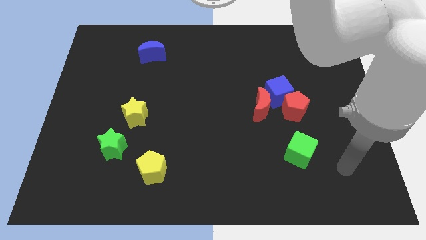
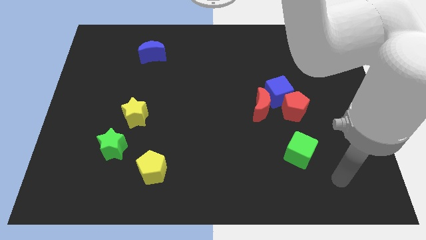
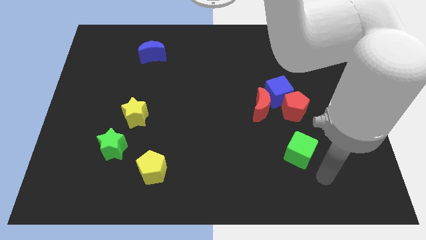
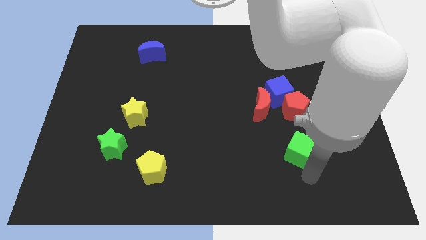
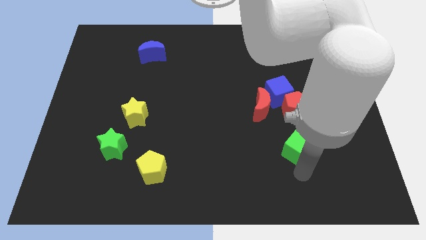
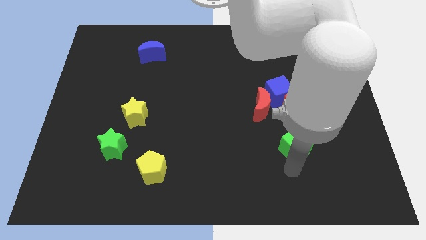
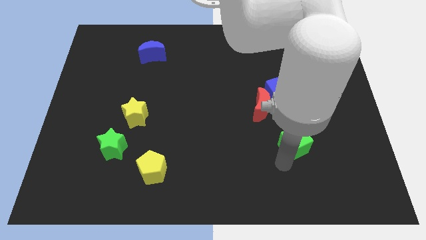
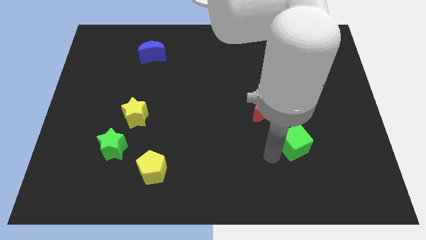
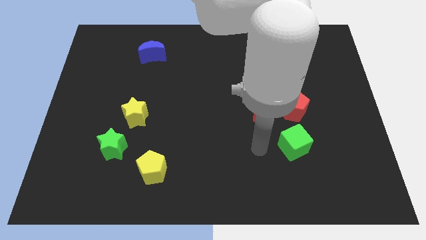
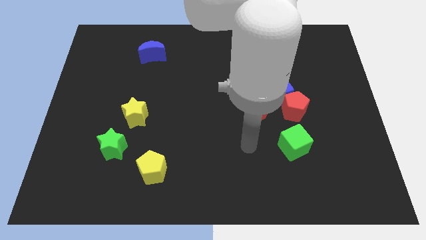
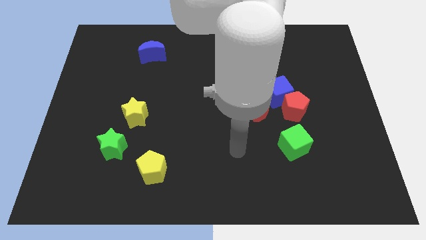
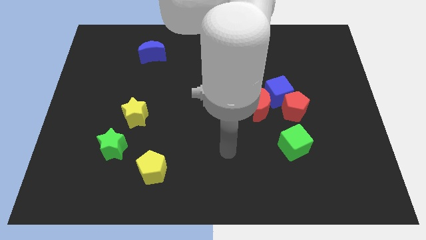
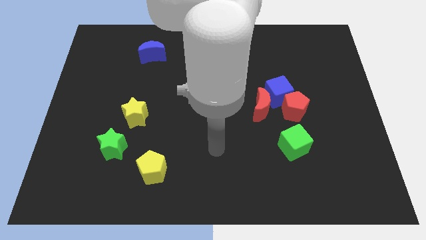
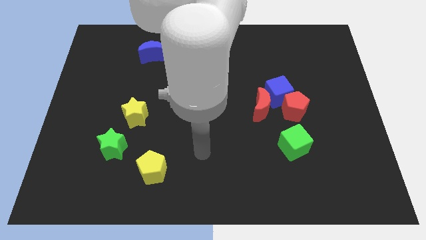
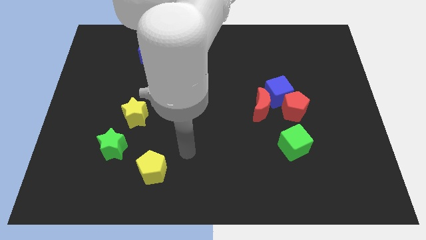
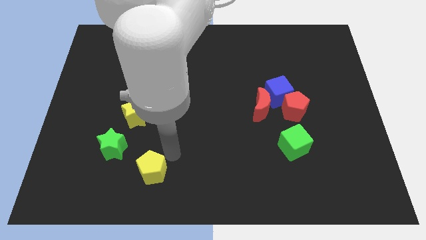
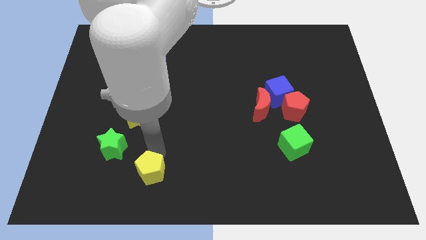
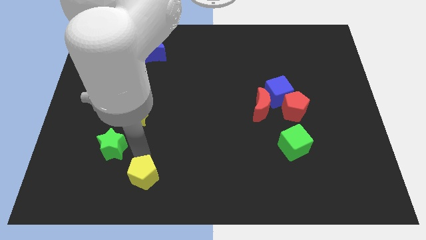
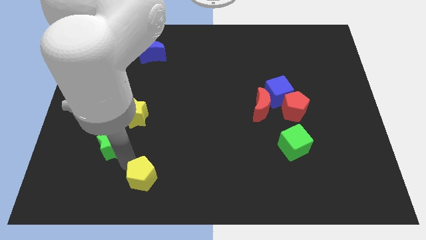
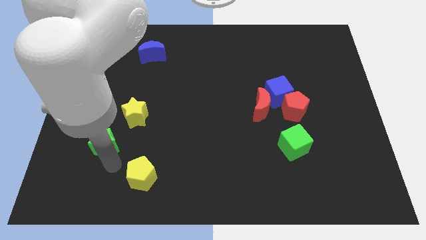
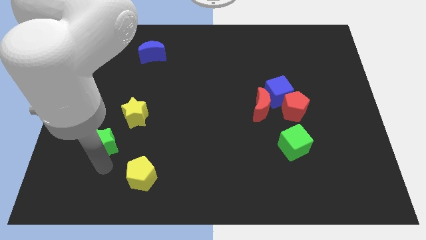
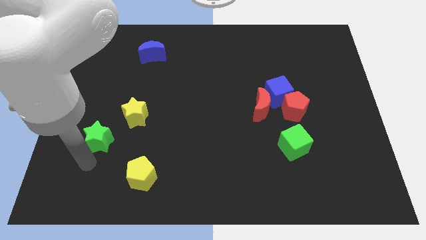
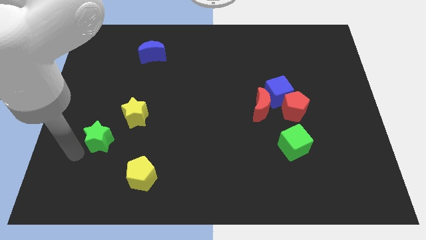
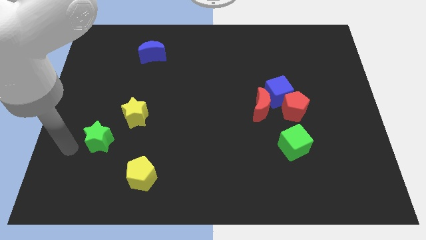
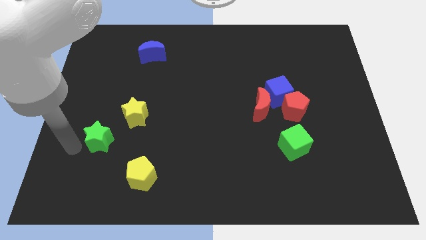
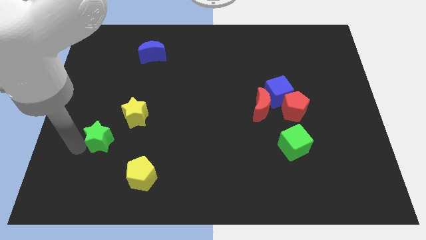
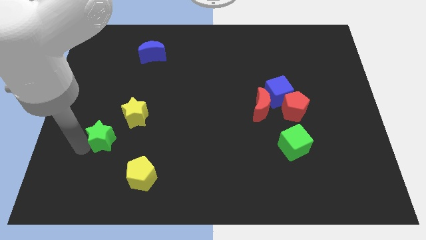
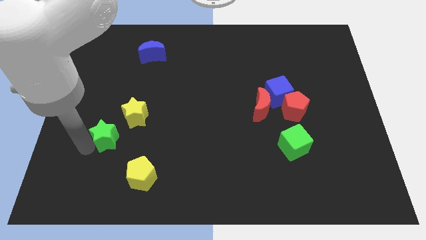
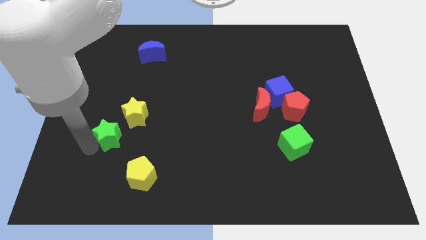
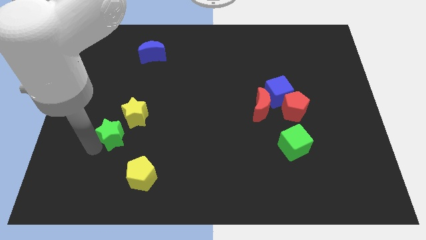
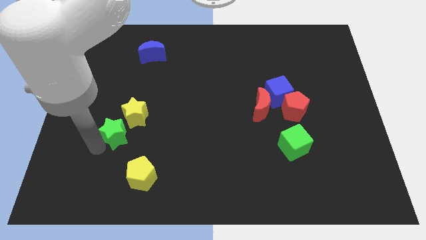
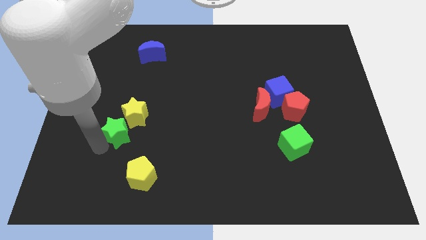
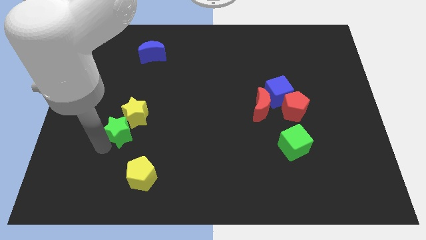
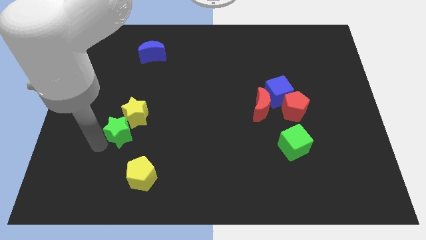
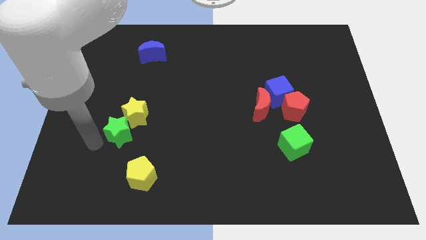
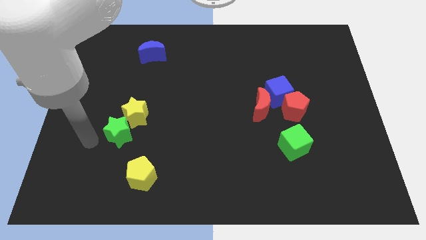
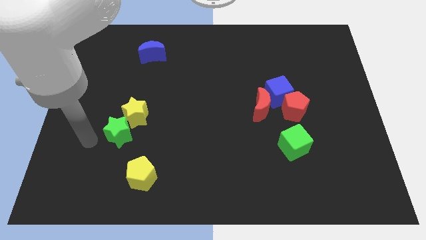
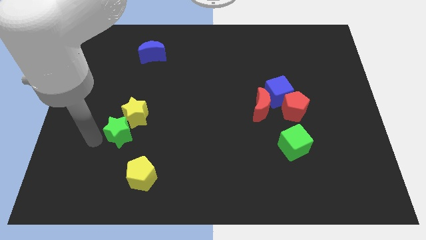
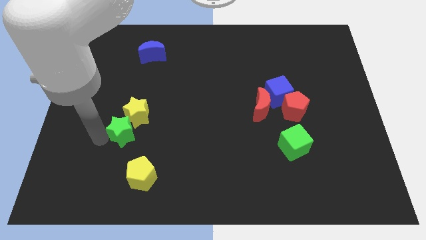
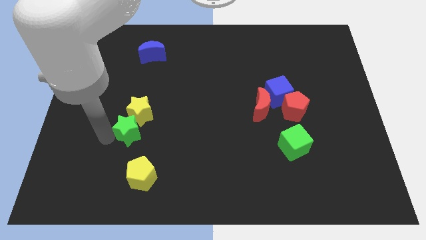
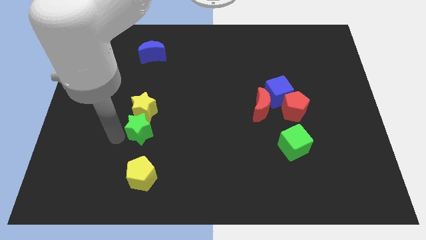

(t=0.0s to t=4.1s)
slide the green star a little diagonally up and right

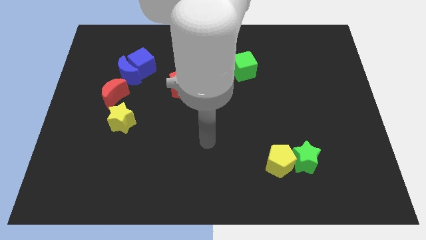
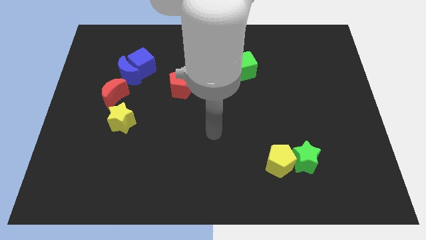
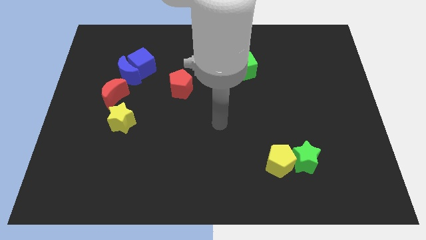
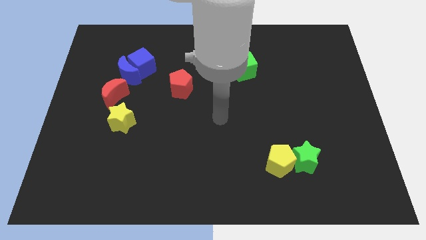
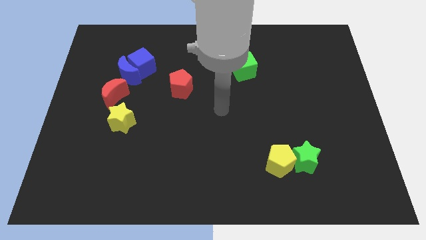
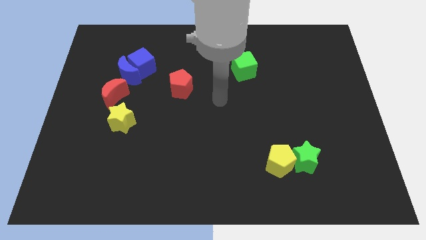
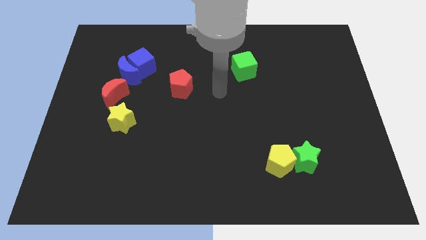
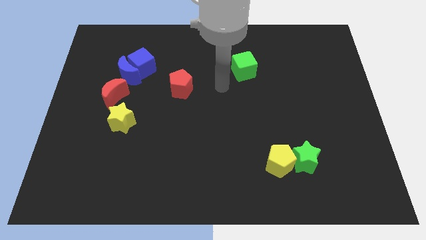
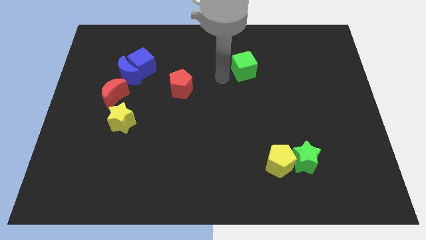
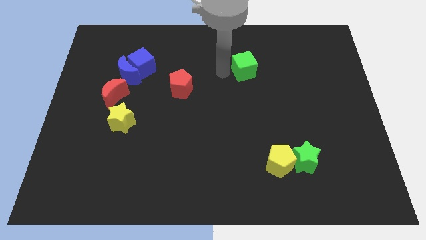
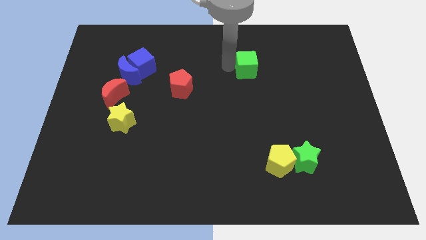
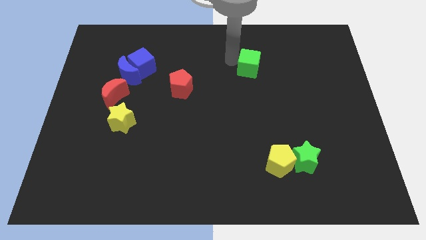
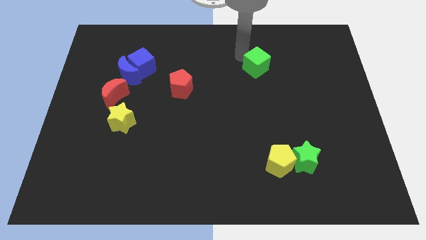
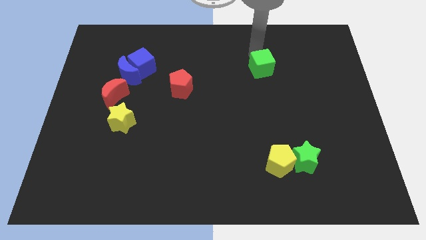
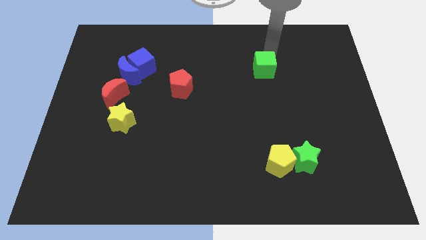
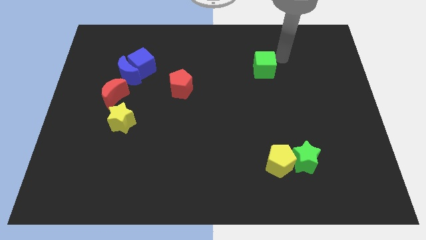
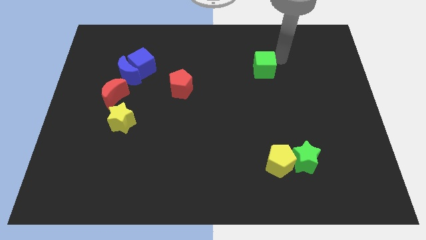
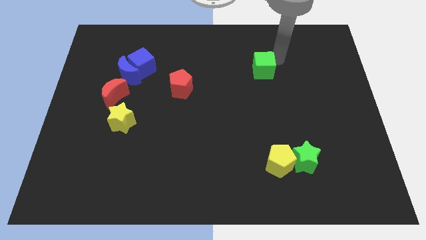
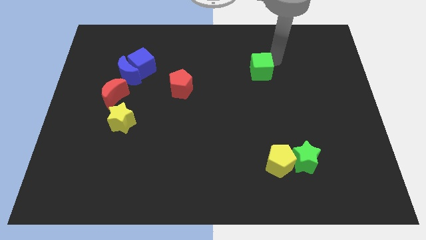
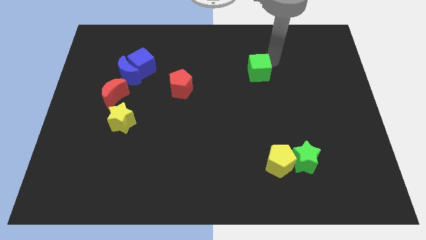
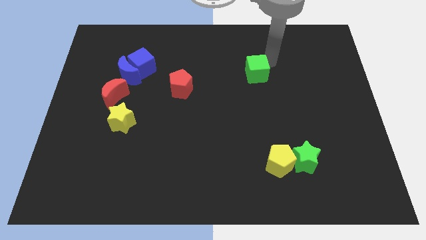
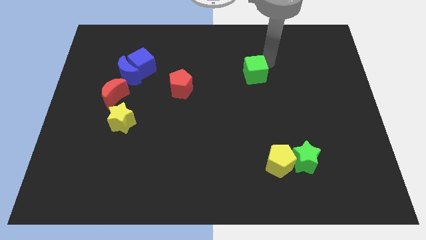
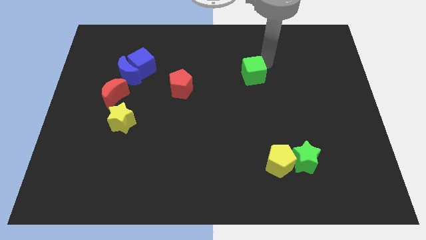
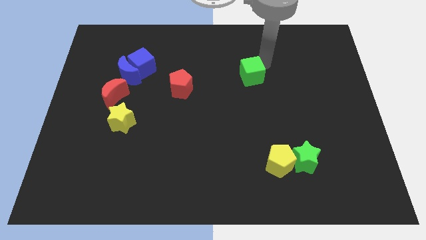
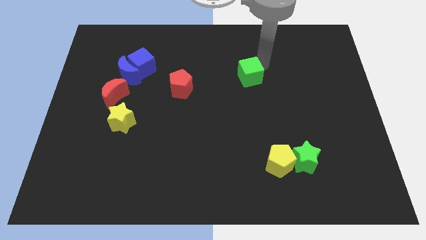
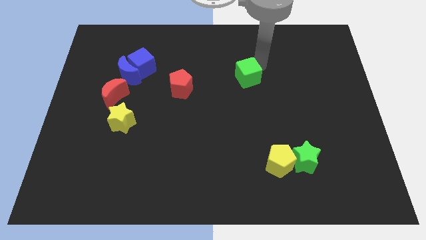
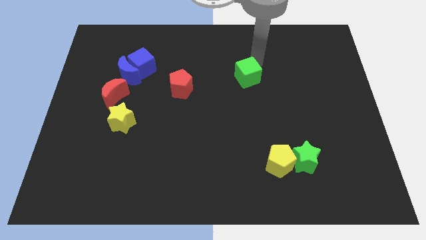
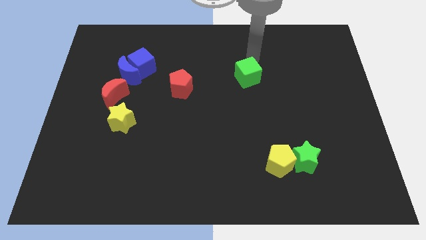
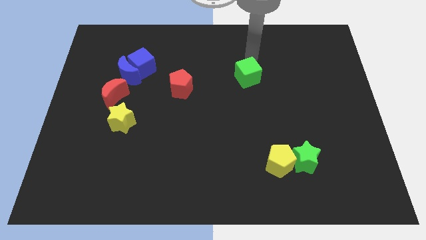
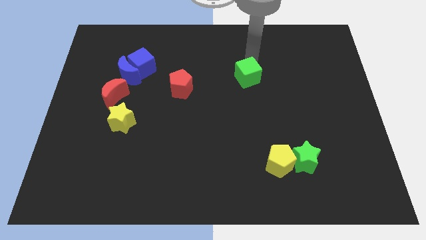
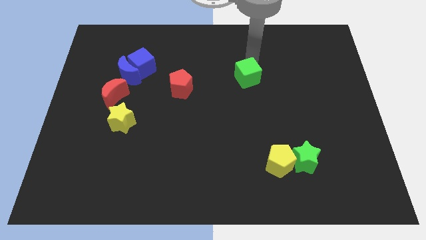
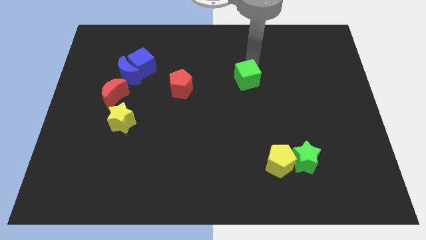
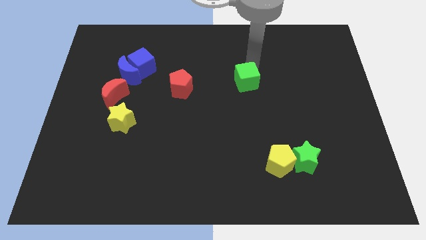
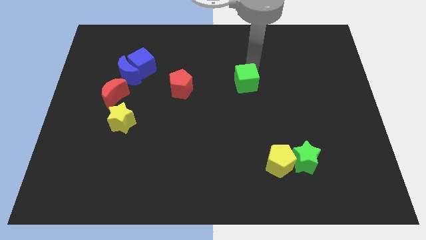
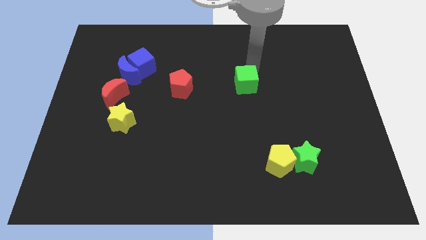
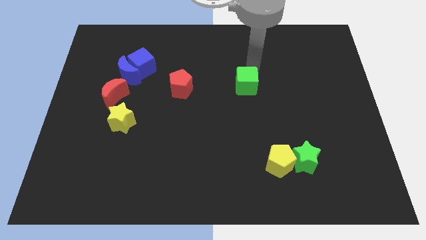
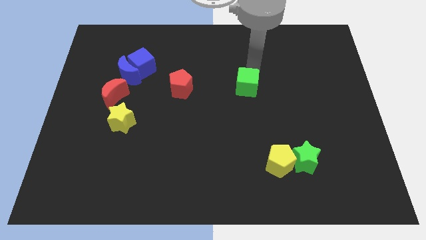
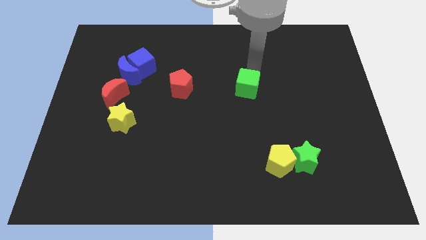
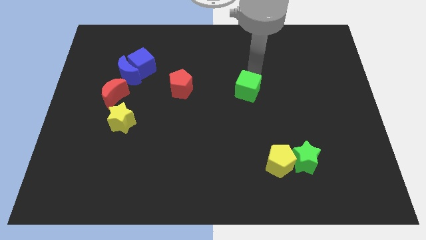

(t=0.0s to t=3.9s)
slide the green cube somewhat downwards

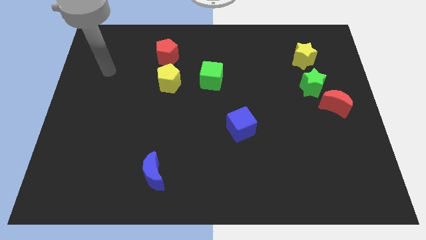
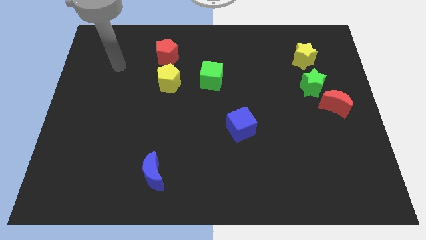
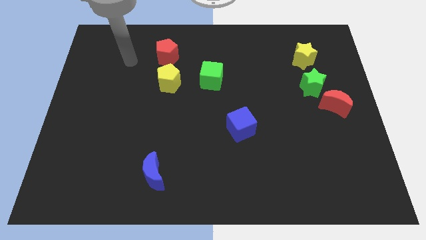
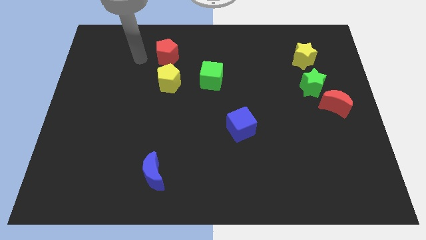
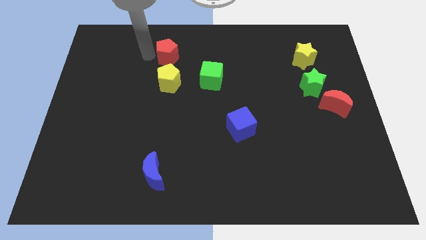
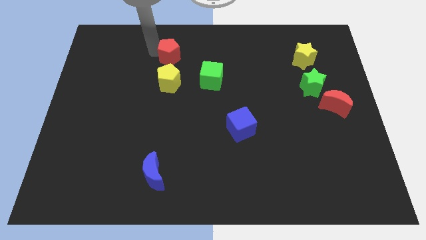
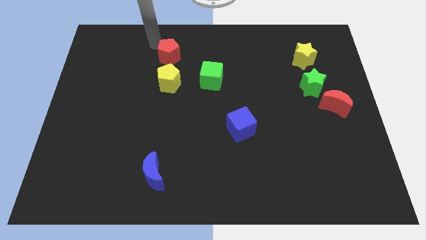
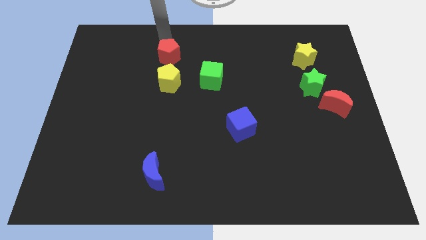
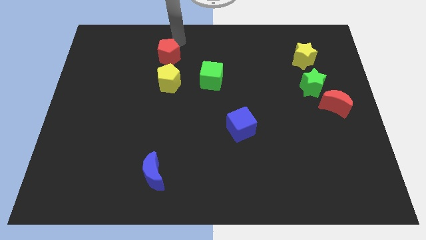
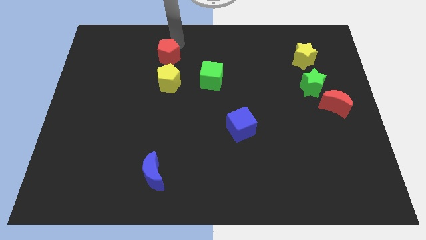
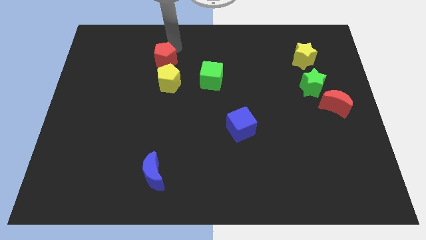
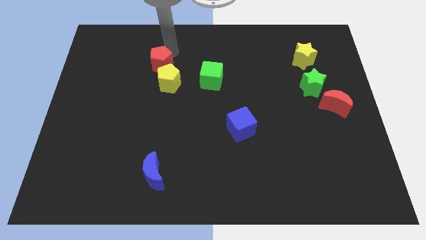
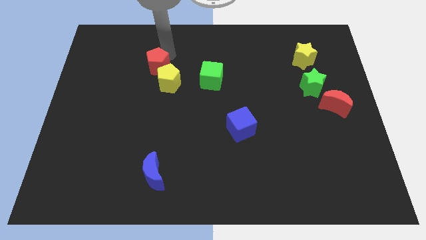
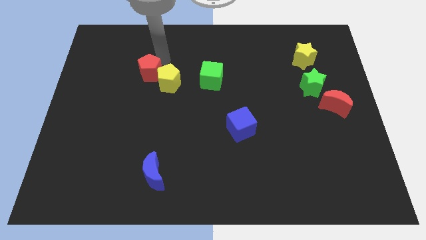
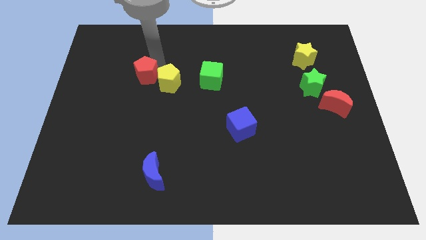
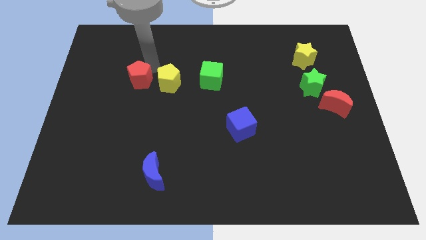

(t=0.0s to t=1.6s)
push the red pentagon slightly down
